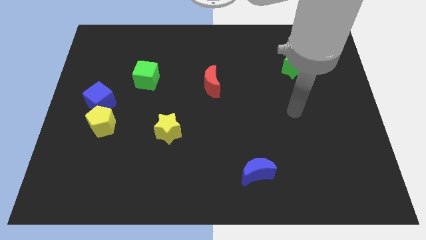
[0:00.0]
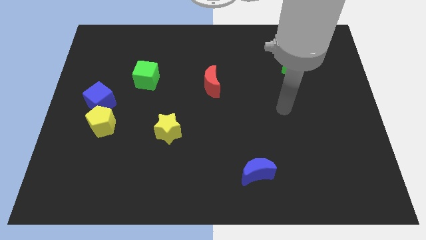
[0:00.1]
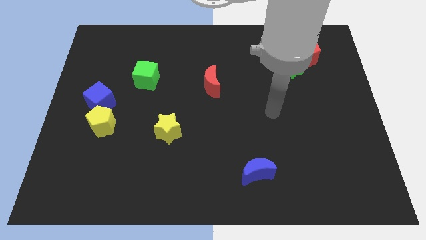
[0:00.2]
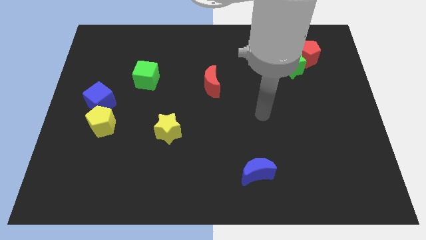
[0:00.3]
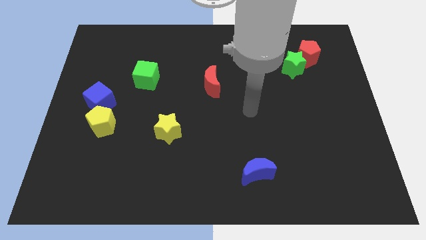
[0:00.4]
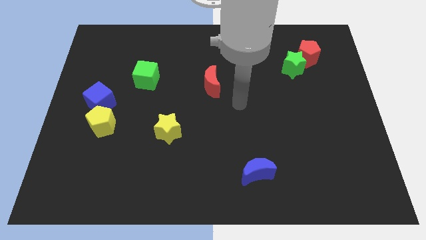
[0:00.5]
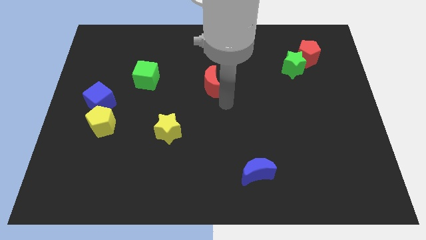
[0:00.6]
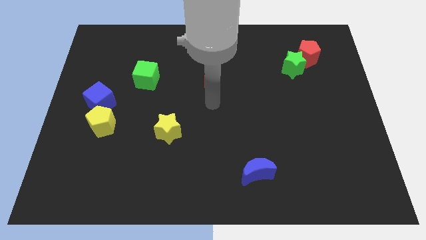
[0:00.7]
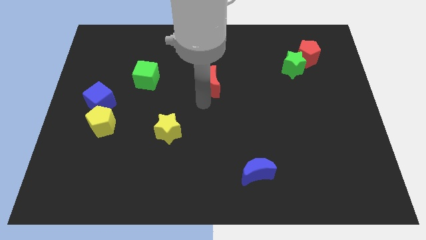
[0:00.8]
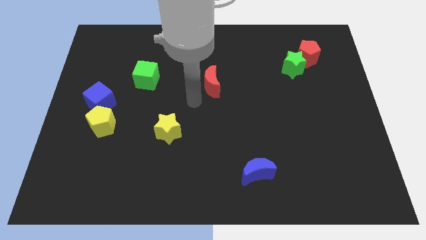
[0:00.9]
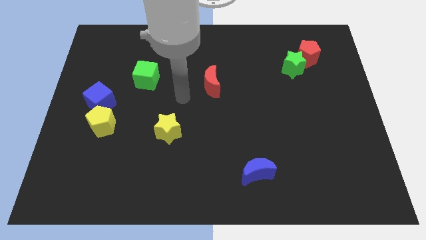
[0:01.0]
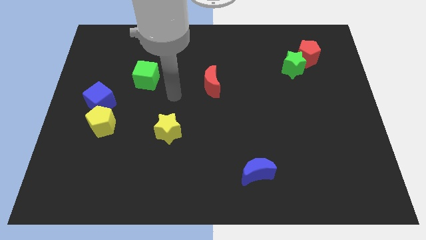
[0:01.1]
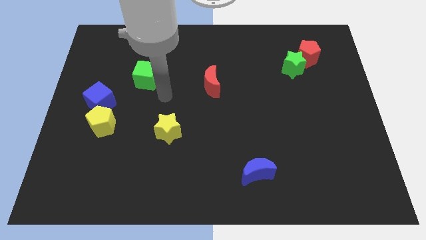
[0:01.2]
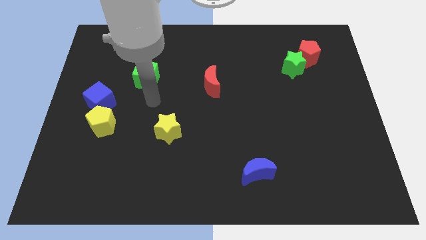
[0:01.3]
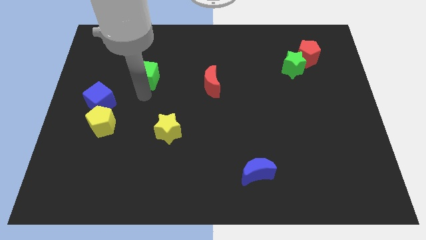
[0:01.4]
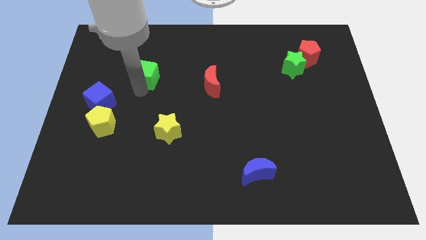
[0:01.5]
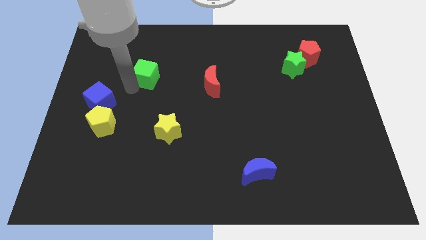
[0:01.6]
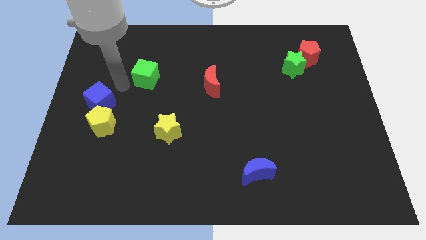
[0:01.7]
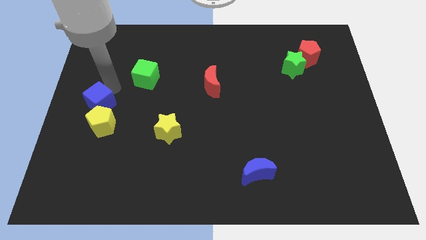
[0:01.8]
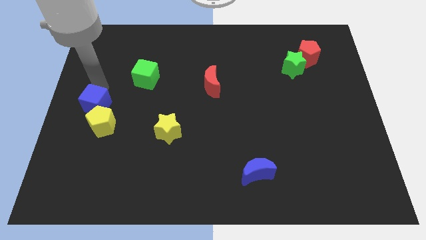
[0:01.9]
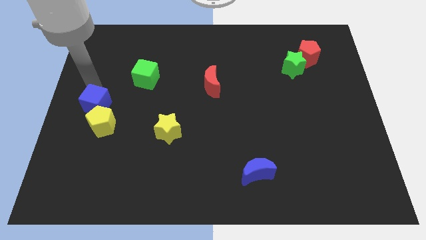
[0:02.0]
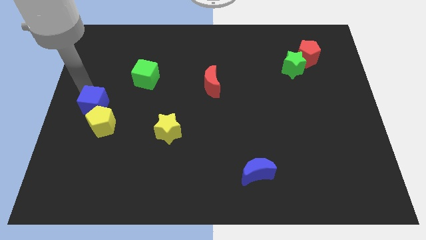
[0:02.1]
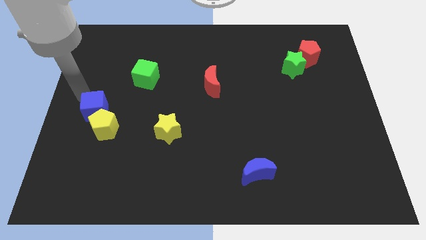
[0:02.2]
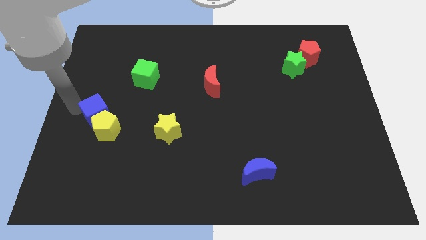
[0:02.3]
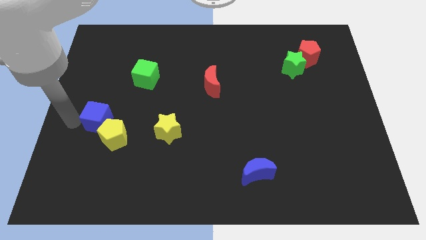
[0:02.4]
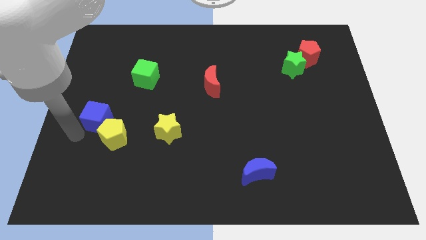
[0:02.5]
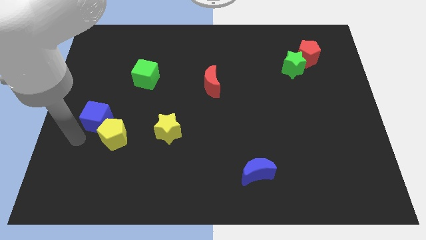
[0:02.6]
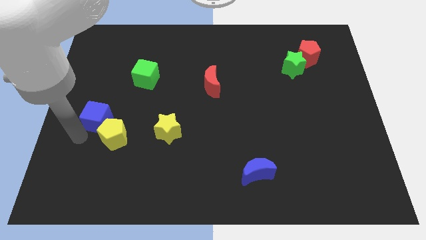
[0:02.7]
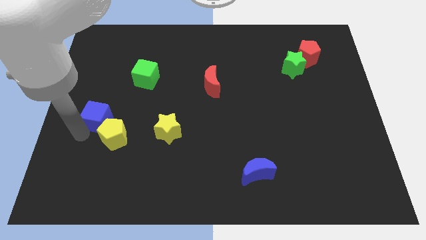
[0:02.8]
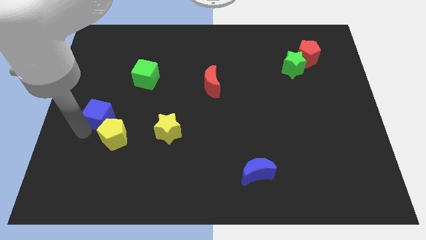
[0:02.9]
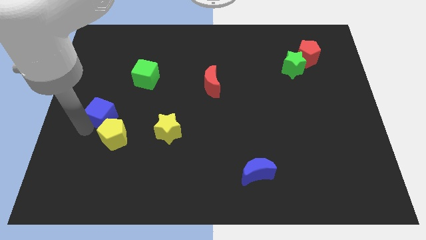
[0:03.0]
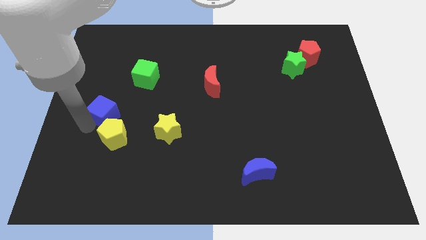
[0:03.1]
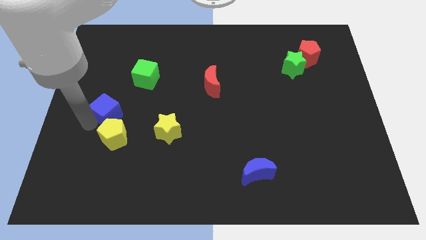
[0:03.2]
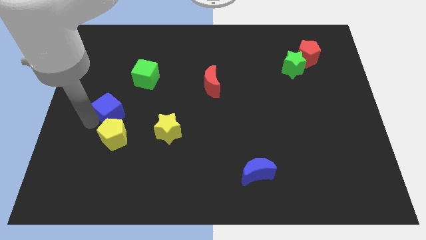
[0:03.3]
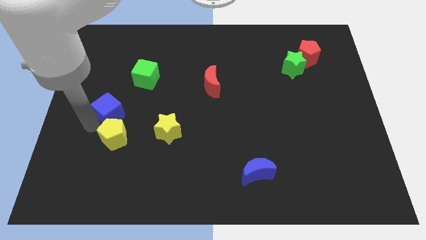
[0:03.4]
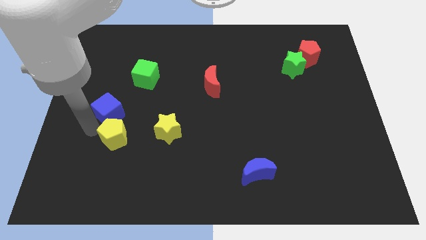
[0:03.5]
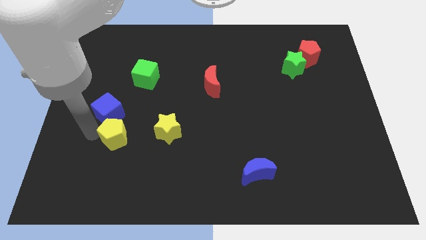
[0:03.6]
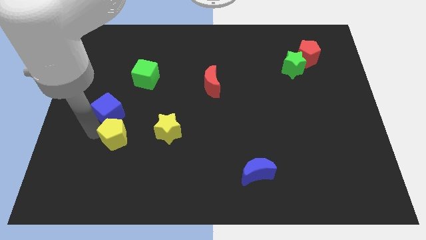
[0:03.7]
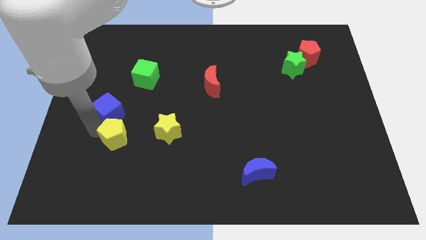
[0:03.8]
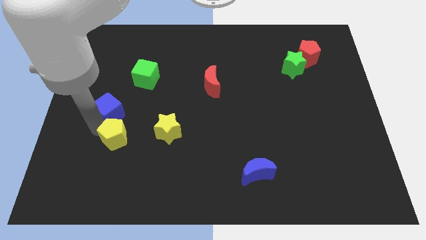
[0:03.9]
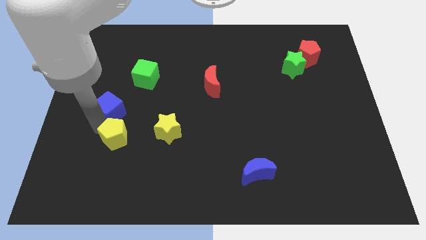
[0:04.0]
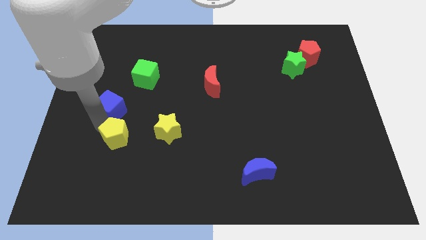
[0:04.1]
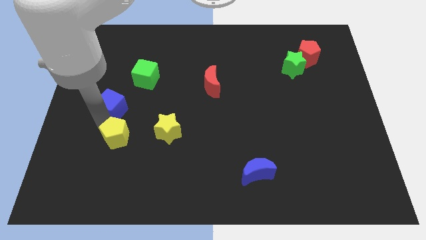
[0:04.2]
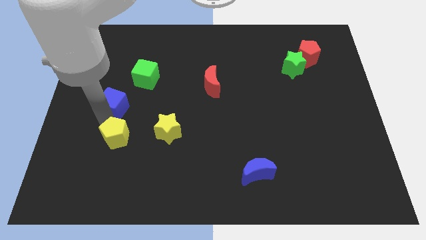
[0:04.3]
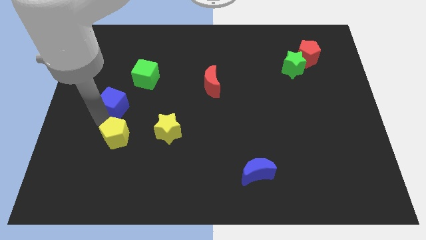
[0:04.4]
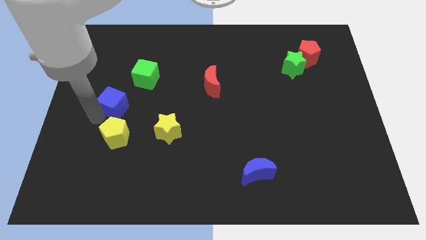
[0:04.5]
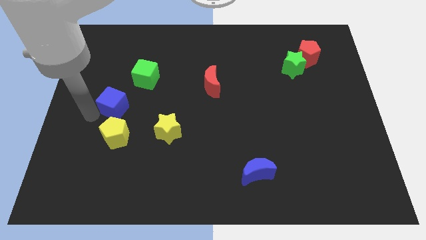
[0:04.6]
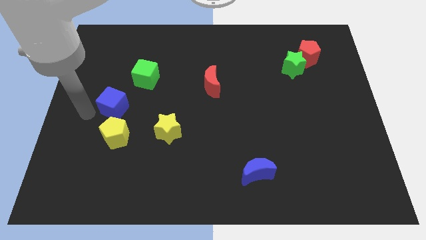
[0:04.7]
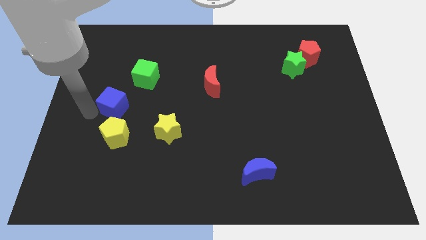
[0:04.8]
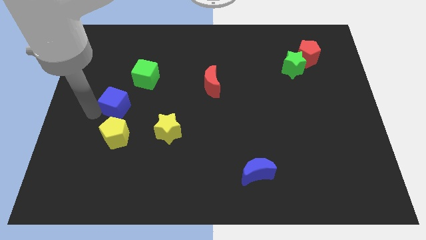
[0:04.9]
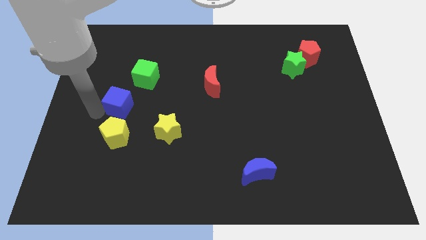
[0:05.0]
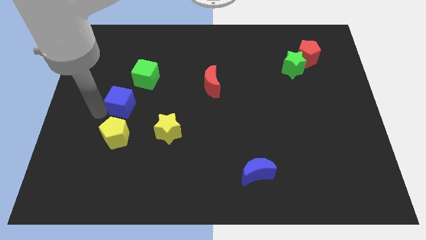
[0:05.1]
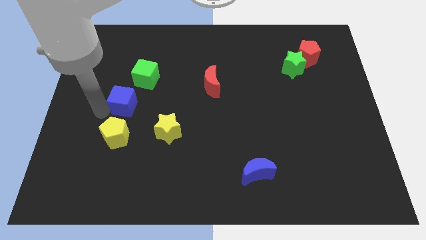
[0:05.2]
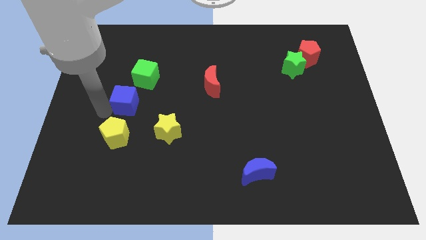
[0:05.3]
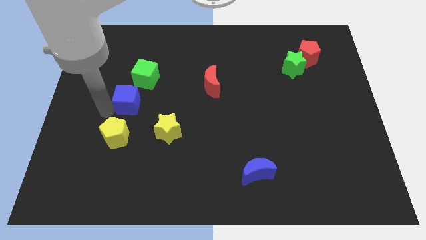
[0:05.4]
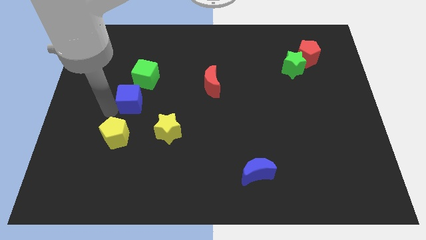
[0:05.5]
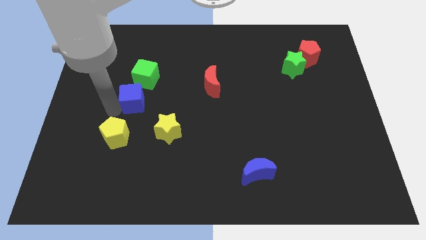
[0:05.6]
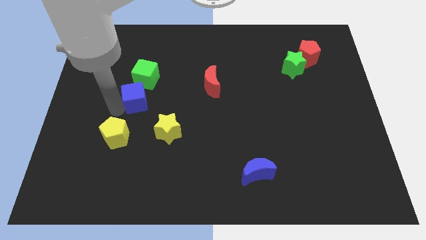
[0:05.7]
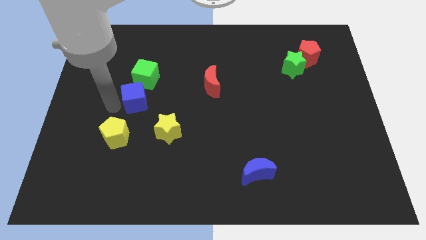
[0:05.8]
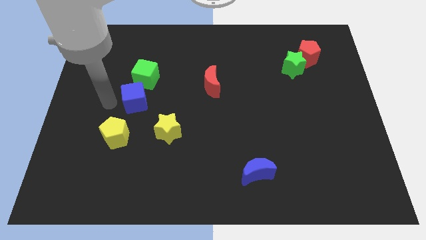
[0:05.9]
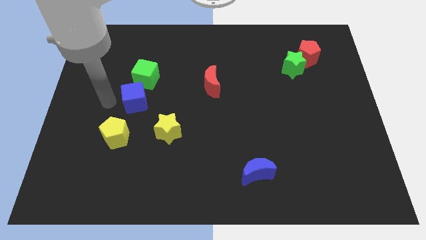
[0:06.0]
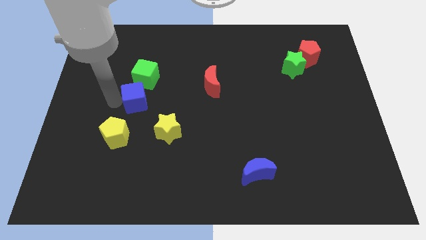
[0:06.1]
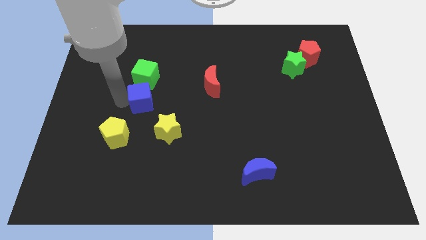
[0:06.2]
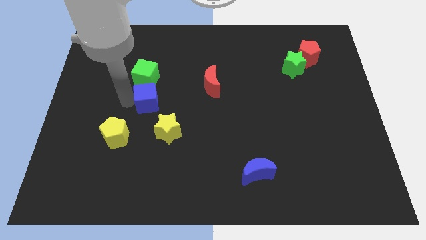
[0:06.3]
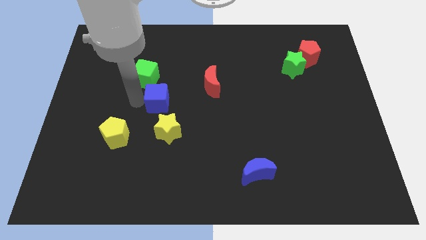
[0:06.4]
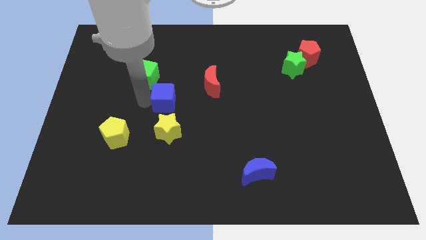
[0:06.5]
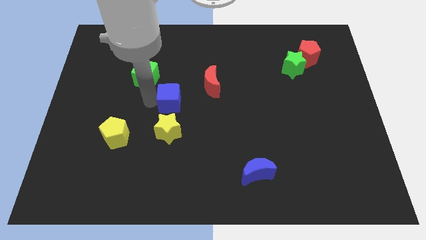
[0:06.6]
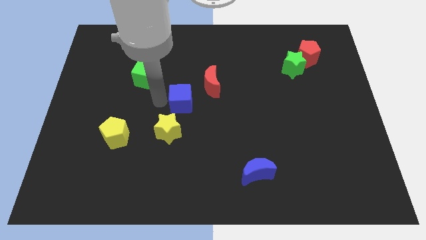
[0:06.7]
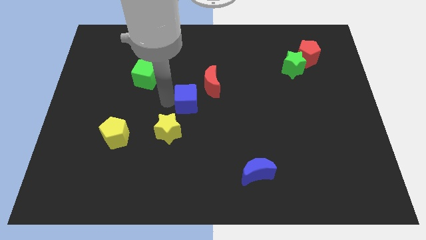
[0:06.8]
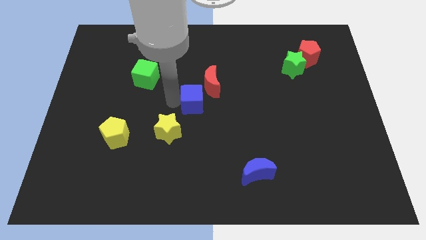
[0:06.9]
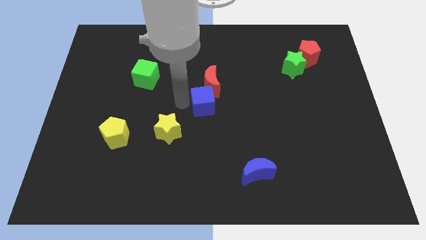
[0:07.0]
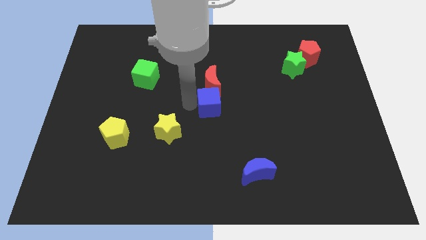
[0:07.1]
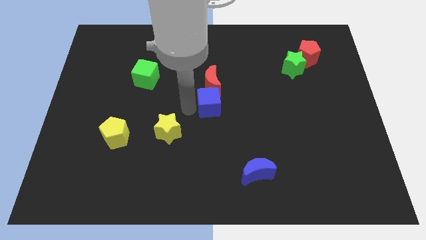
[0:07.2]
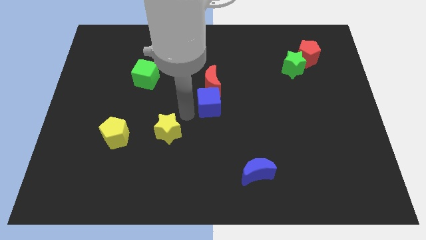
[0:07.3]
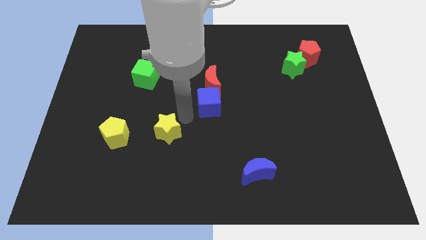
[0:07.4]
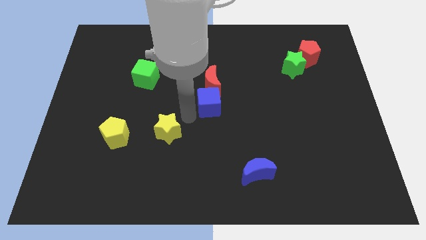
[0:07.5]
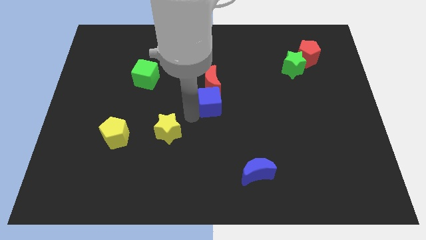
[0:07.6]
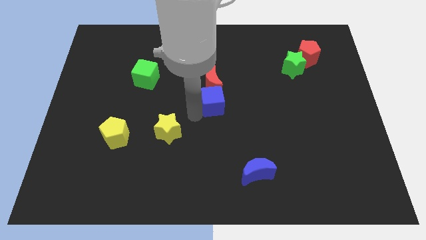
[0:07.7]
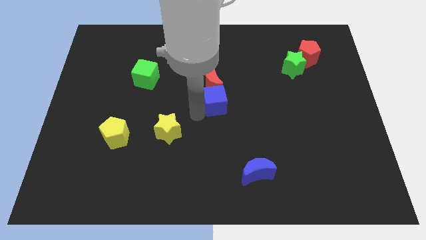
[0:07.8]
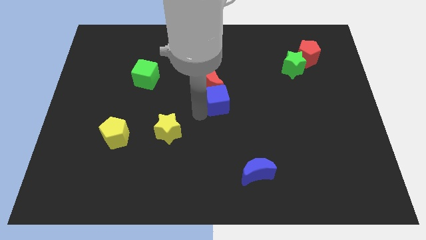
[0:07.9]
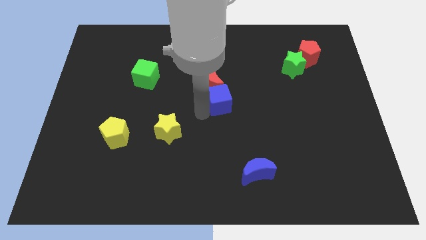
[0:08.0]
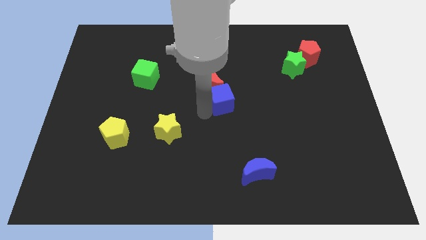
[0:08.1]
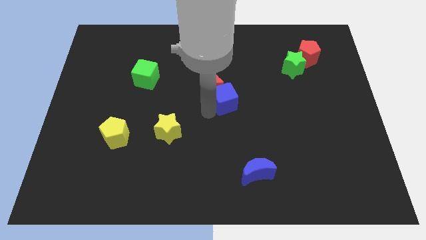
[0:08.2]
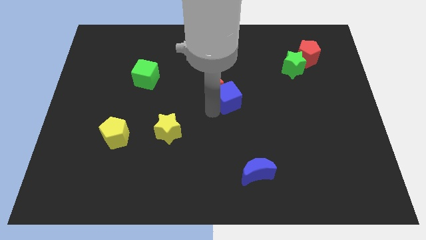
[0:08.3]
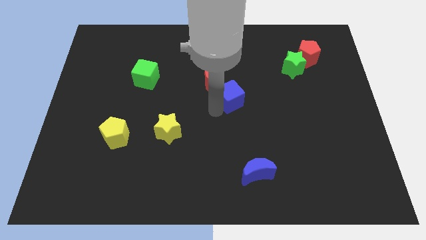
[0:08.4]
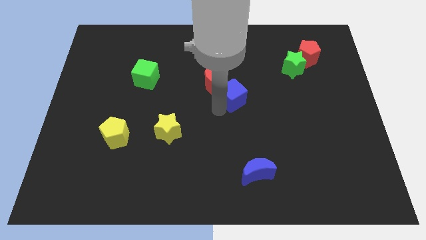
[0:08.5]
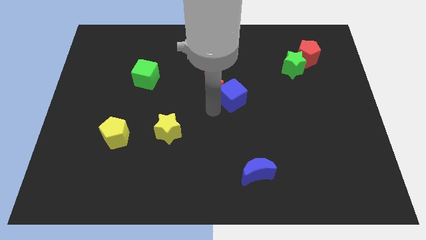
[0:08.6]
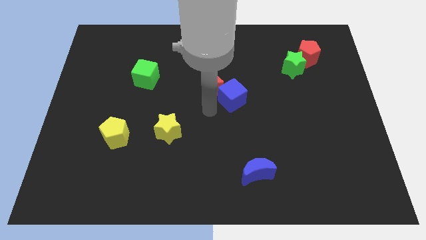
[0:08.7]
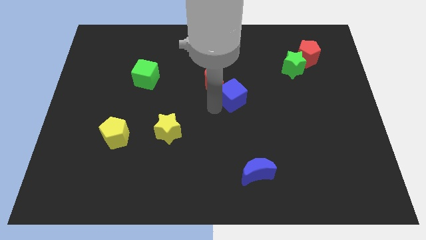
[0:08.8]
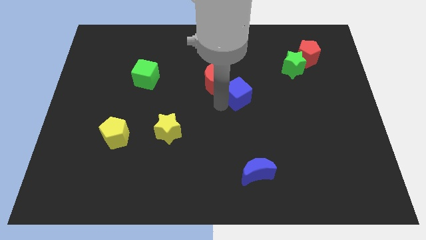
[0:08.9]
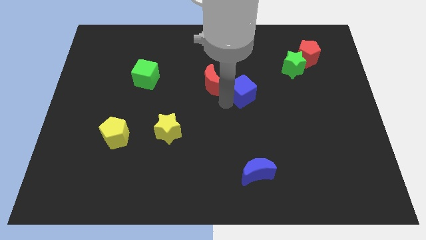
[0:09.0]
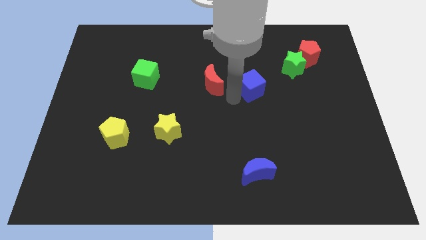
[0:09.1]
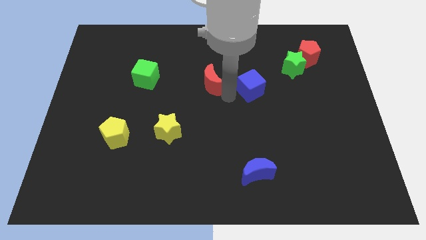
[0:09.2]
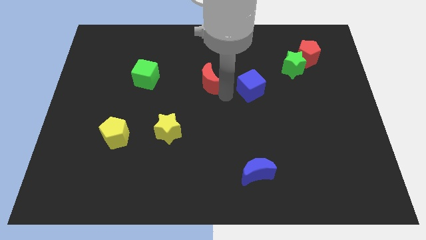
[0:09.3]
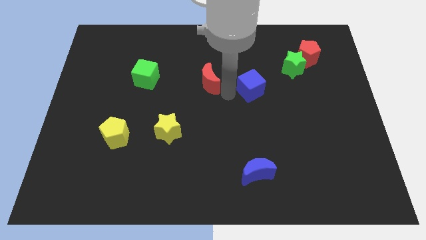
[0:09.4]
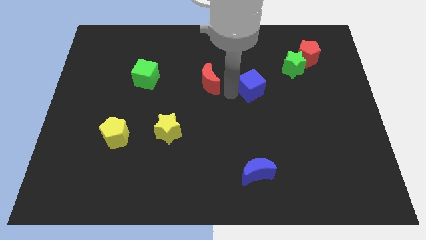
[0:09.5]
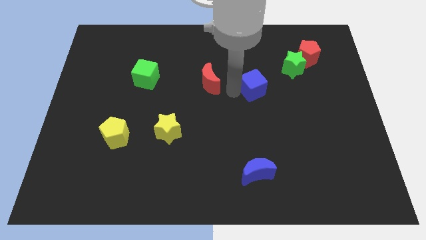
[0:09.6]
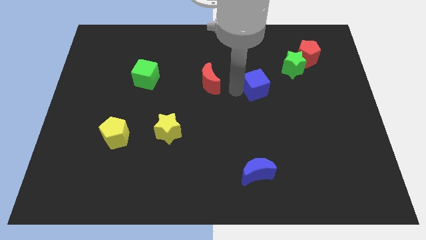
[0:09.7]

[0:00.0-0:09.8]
put the blue cube to the bottom left side of the green star
